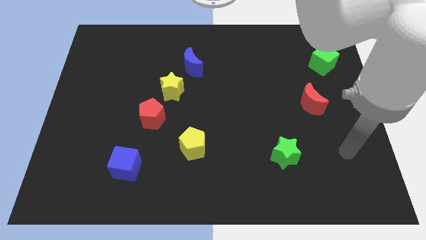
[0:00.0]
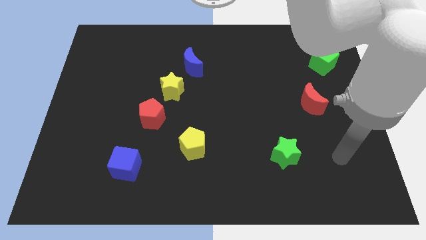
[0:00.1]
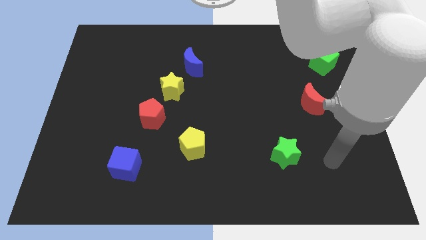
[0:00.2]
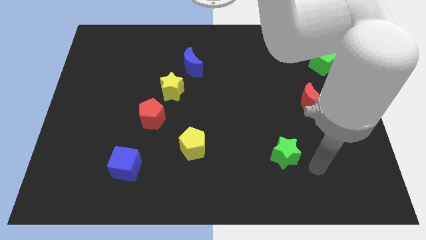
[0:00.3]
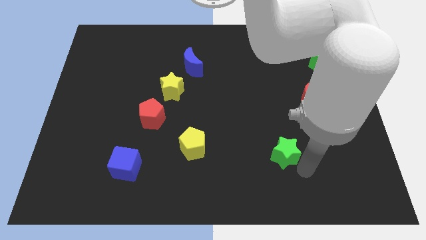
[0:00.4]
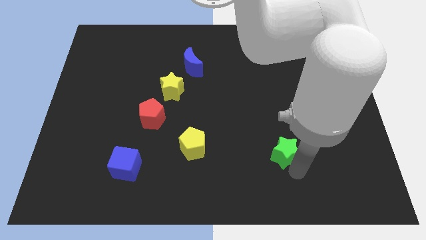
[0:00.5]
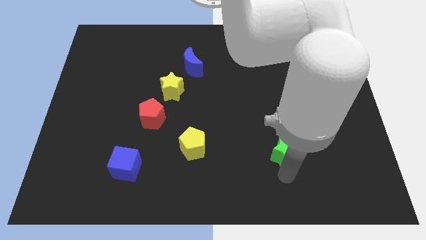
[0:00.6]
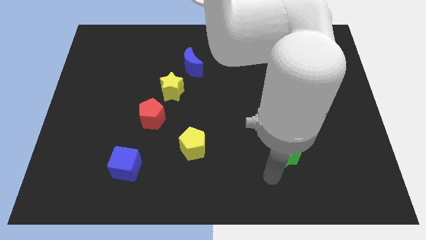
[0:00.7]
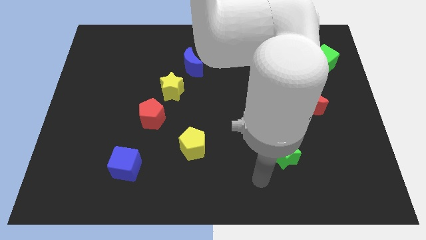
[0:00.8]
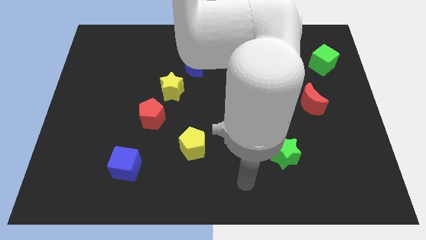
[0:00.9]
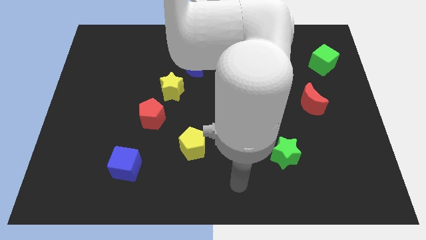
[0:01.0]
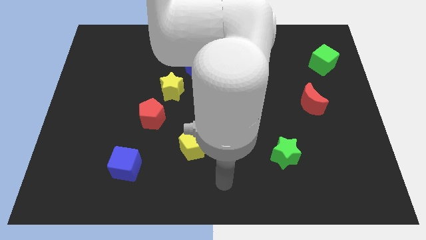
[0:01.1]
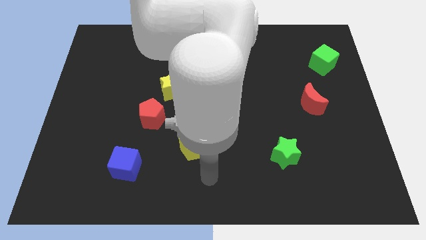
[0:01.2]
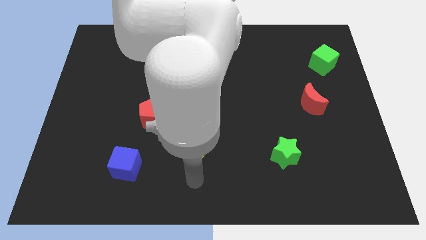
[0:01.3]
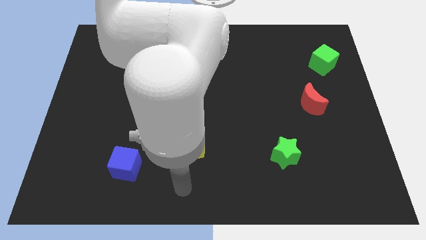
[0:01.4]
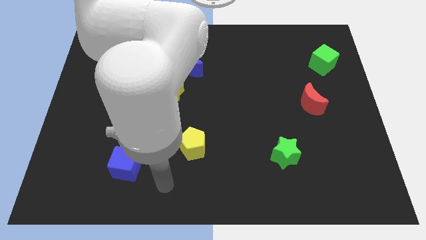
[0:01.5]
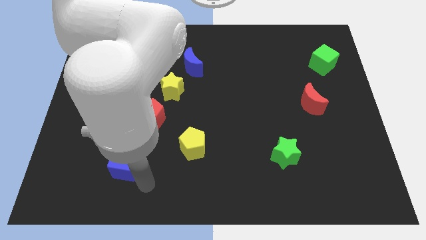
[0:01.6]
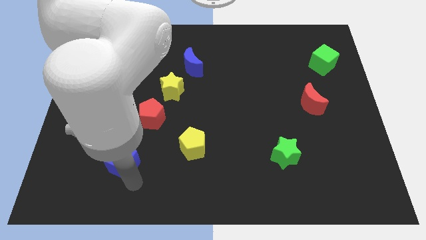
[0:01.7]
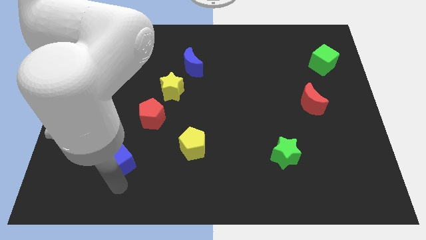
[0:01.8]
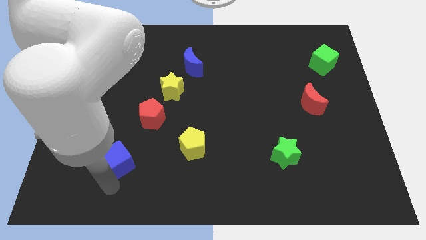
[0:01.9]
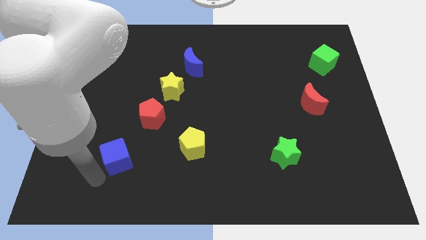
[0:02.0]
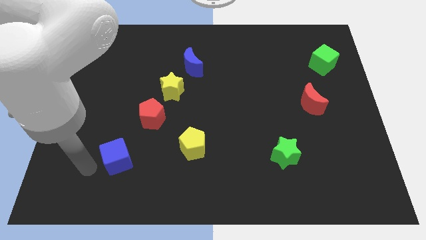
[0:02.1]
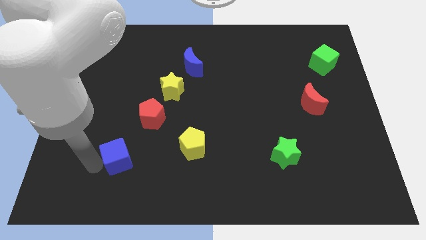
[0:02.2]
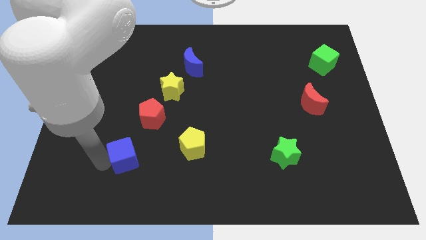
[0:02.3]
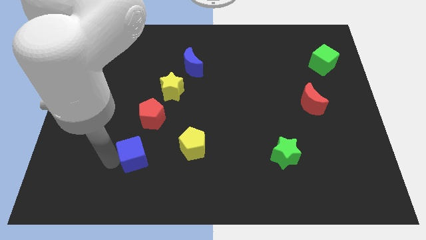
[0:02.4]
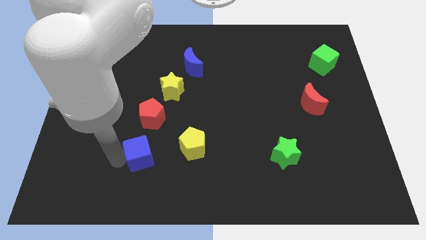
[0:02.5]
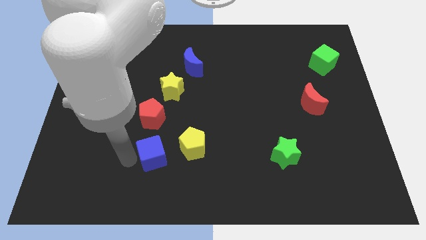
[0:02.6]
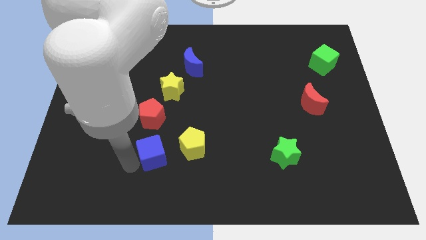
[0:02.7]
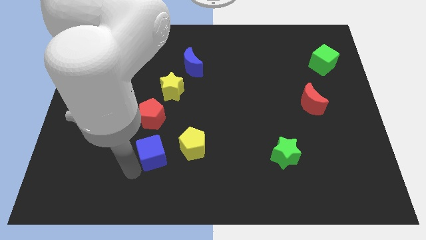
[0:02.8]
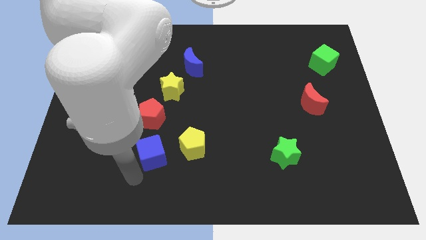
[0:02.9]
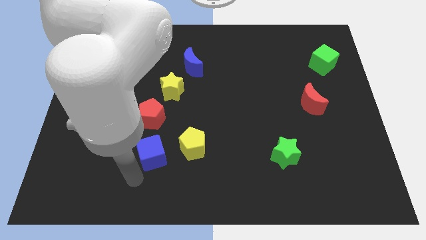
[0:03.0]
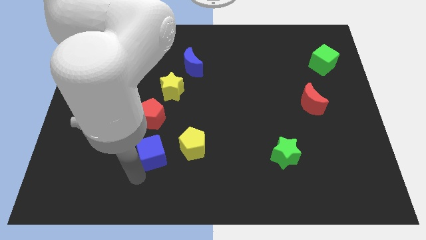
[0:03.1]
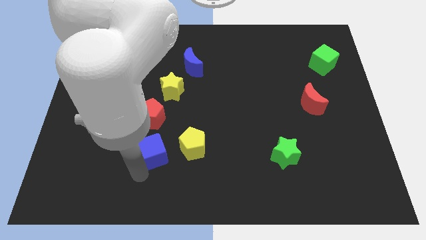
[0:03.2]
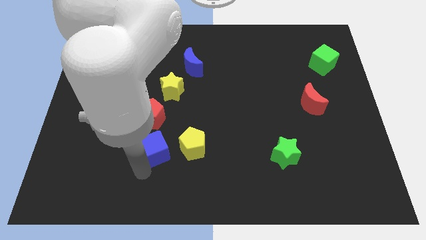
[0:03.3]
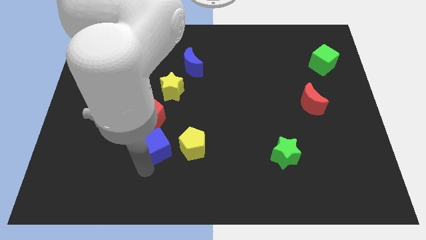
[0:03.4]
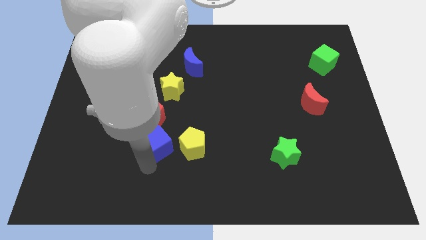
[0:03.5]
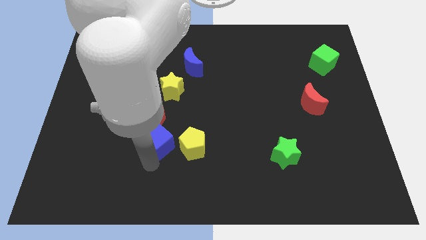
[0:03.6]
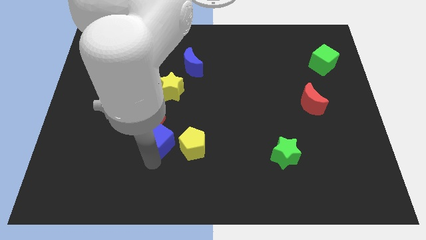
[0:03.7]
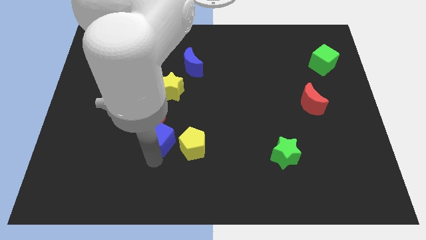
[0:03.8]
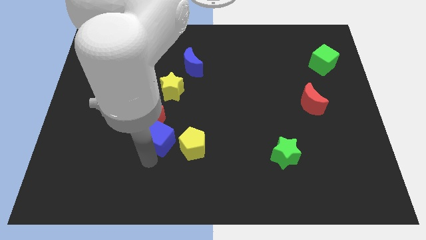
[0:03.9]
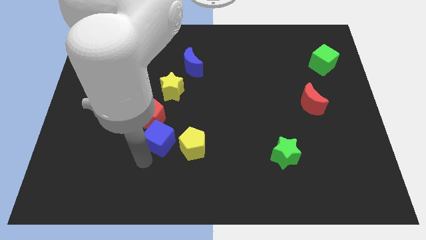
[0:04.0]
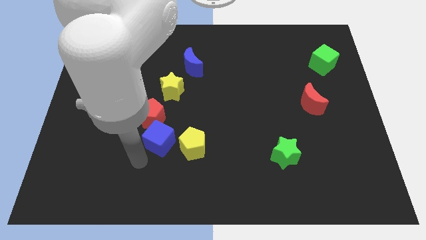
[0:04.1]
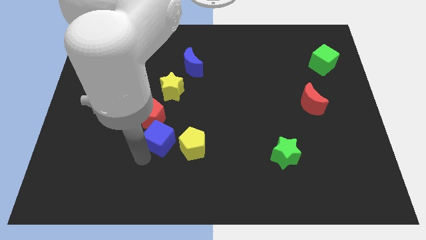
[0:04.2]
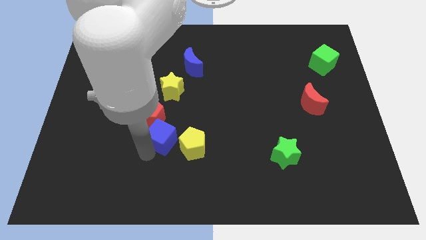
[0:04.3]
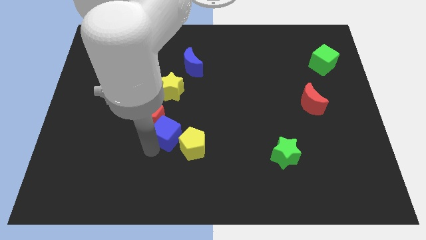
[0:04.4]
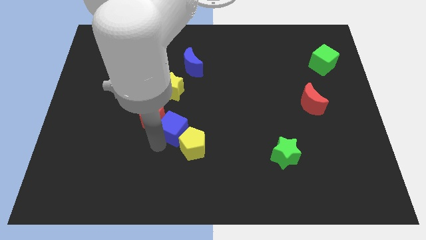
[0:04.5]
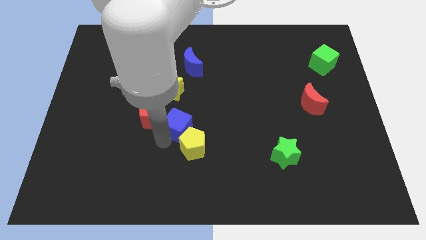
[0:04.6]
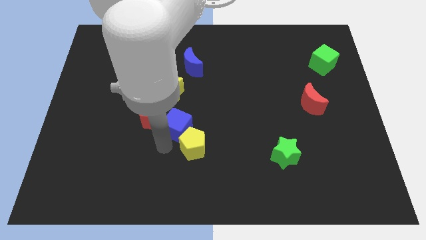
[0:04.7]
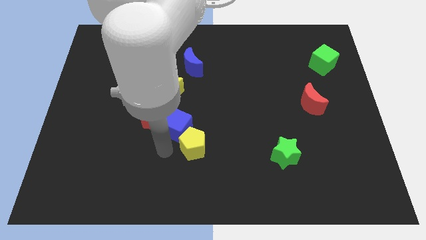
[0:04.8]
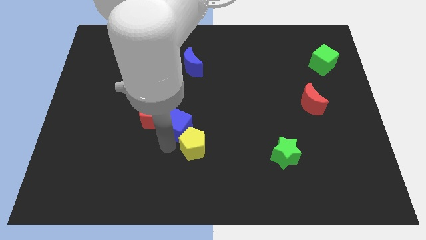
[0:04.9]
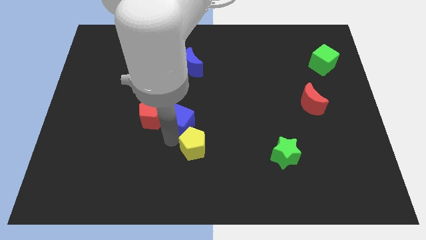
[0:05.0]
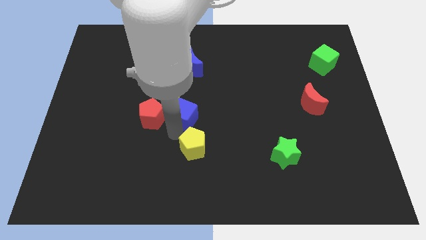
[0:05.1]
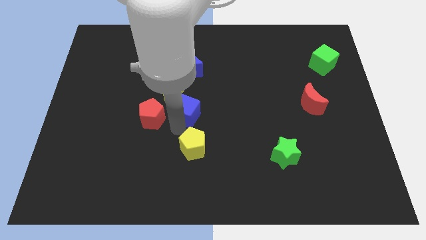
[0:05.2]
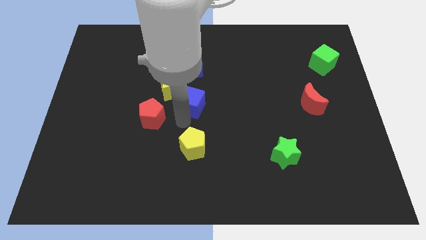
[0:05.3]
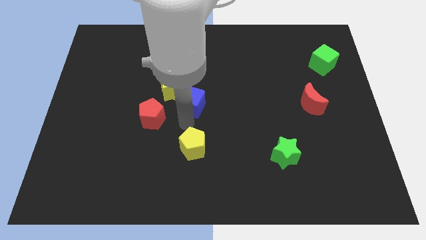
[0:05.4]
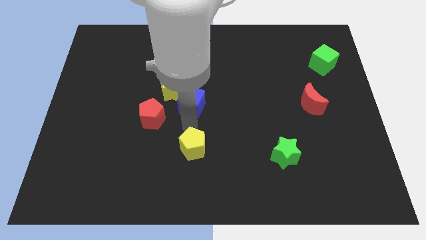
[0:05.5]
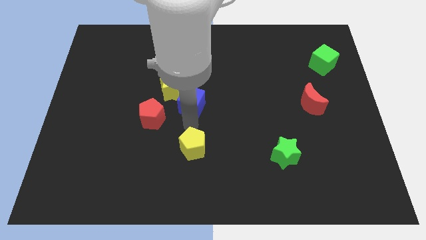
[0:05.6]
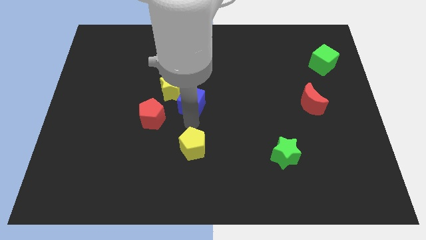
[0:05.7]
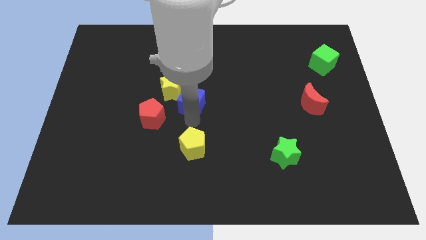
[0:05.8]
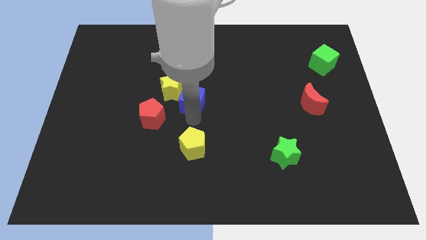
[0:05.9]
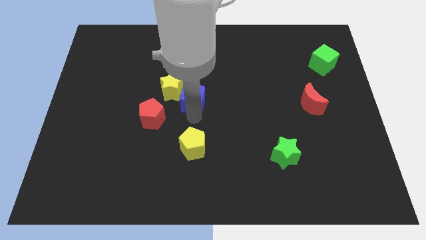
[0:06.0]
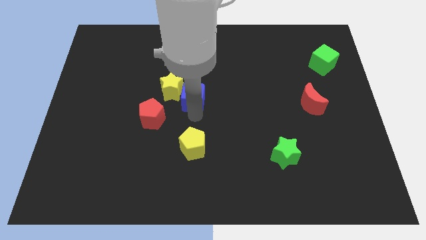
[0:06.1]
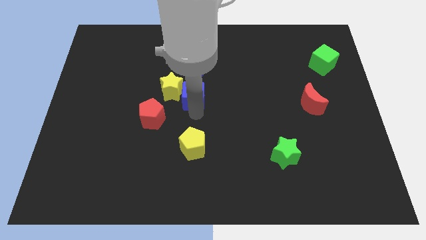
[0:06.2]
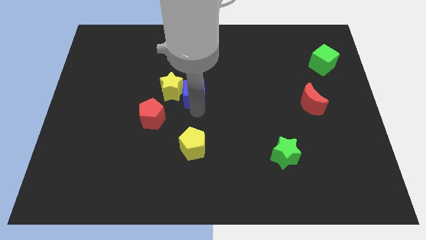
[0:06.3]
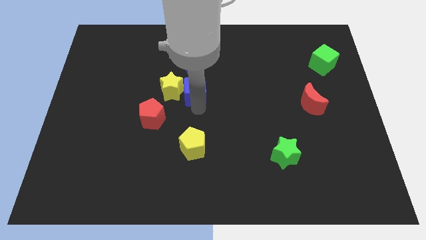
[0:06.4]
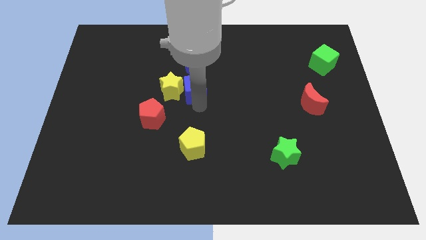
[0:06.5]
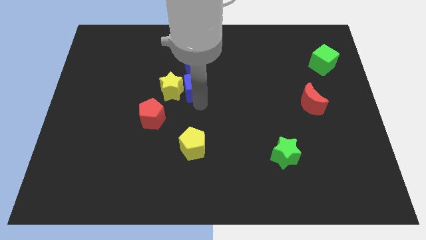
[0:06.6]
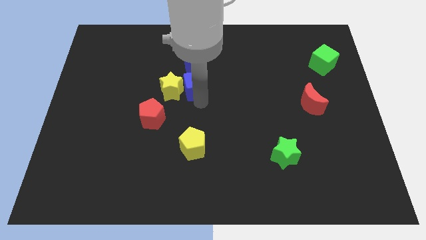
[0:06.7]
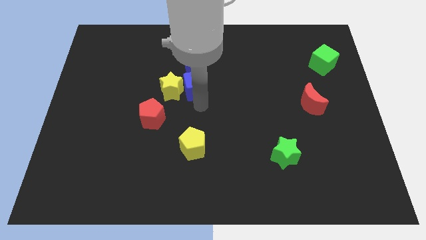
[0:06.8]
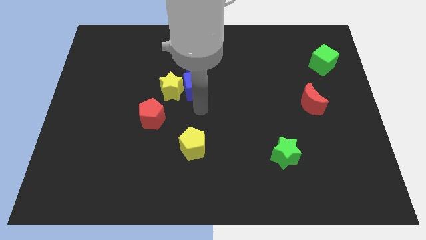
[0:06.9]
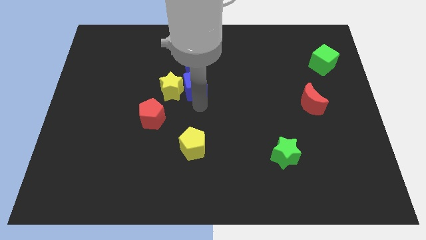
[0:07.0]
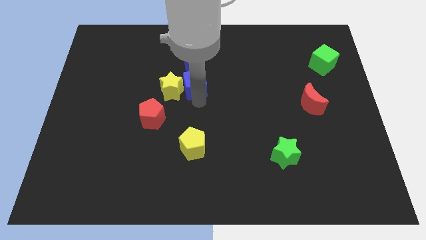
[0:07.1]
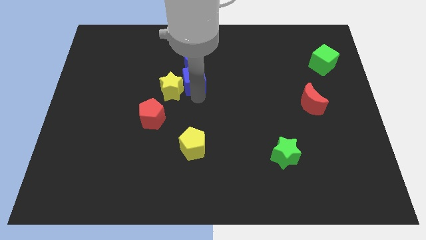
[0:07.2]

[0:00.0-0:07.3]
put the blue cube to the blue moon

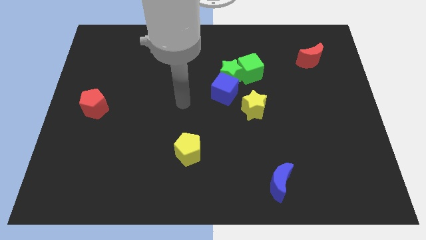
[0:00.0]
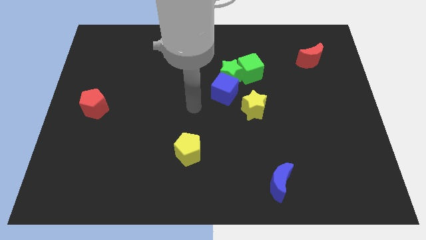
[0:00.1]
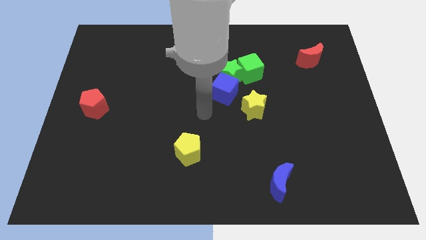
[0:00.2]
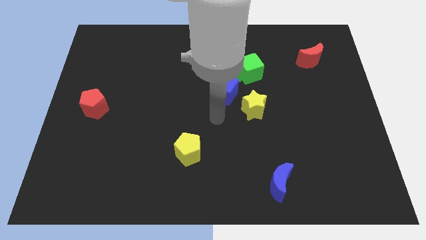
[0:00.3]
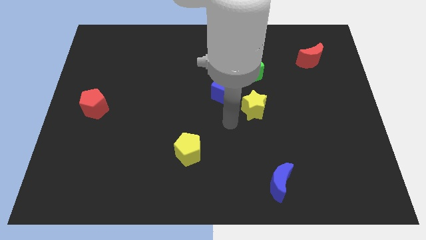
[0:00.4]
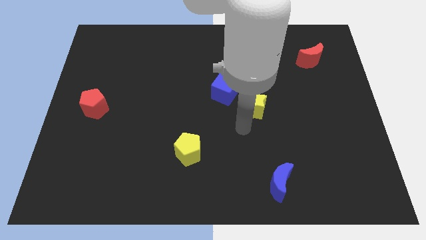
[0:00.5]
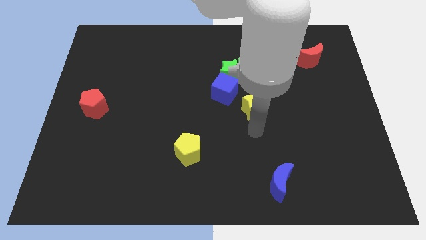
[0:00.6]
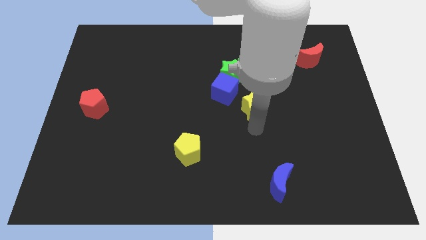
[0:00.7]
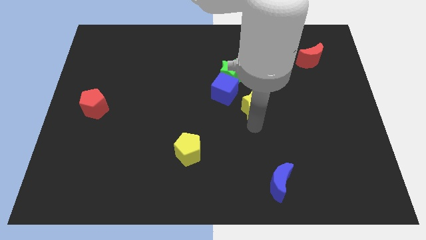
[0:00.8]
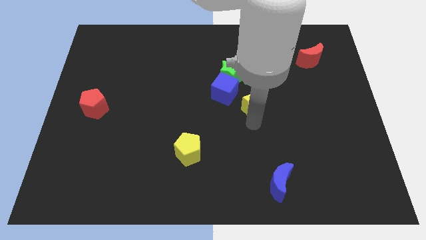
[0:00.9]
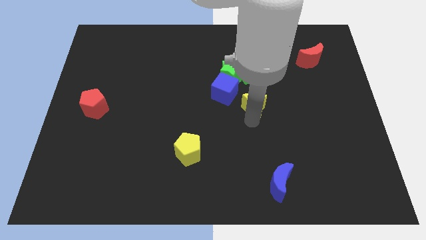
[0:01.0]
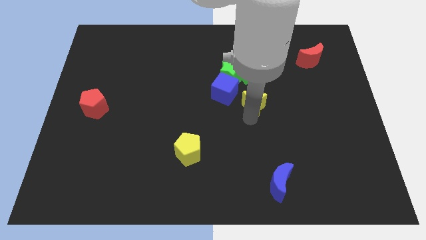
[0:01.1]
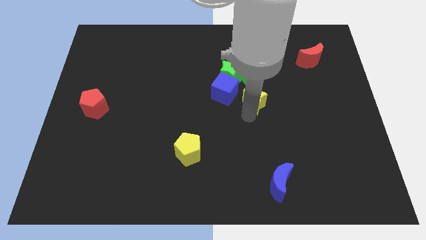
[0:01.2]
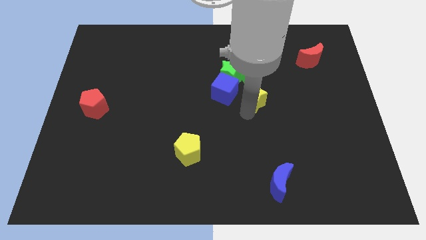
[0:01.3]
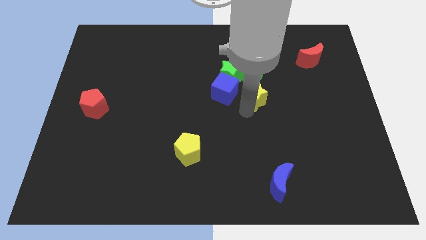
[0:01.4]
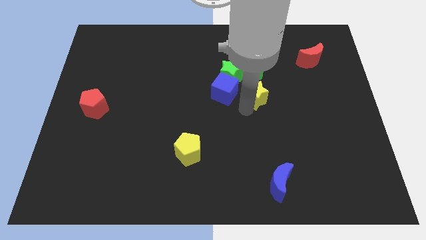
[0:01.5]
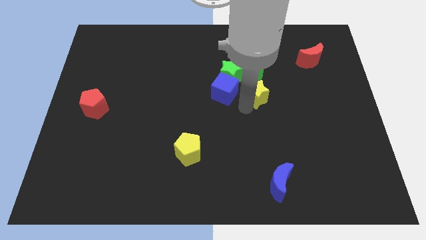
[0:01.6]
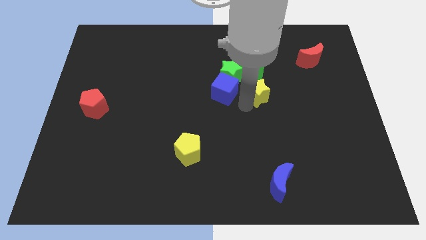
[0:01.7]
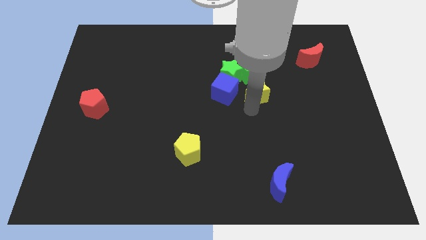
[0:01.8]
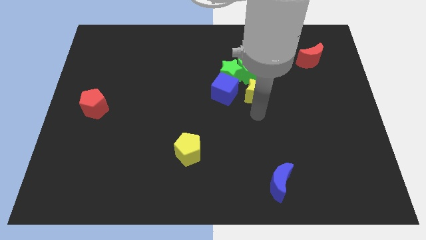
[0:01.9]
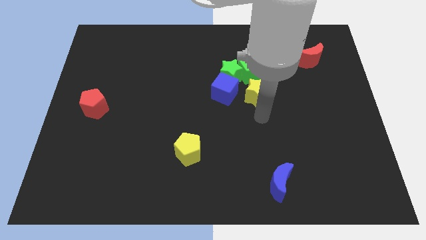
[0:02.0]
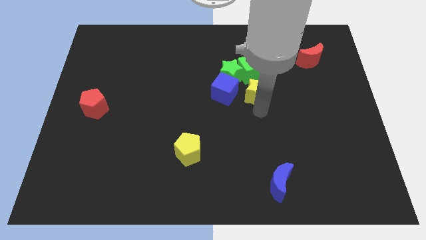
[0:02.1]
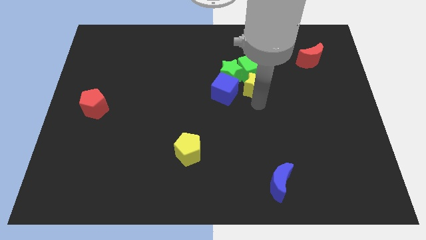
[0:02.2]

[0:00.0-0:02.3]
push the yellow star to the green cube
